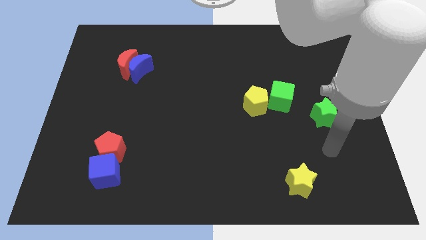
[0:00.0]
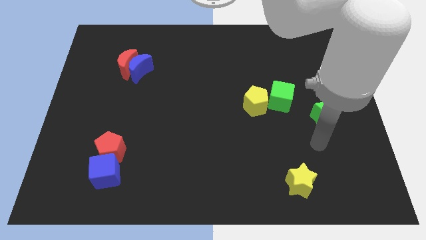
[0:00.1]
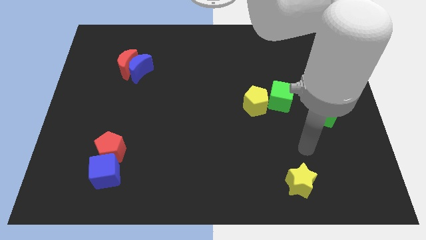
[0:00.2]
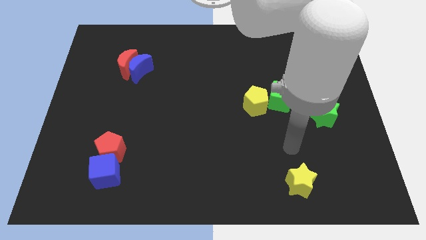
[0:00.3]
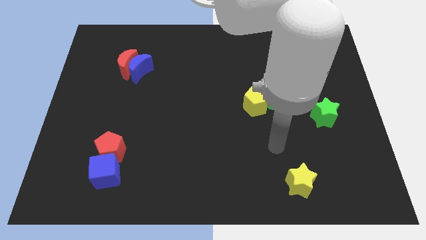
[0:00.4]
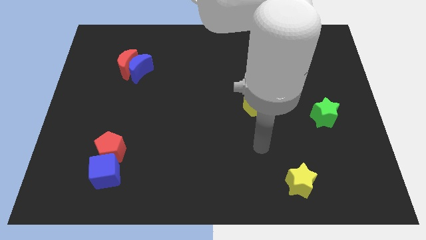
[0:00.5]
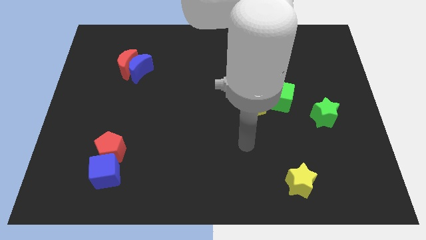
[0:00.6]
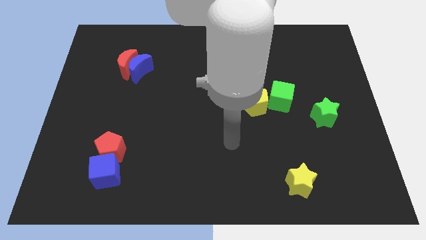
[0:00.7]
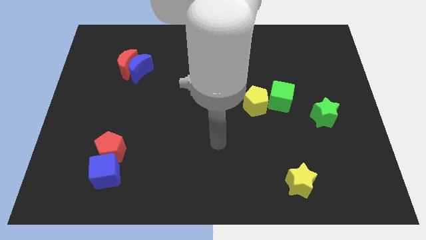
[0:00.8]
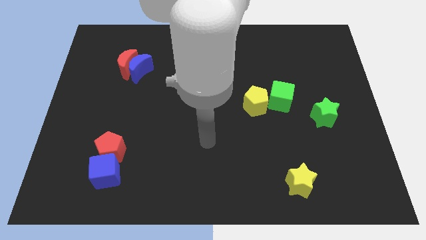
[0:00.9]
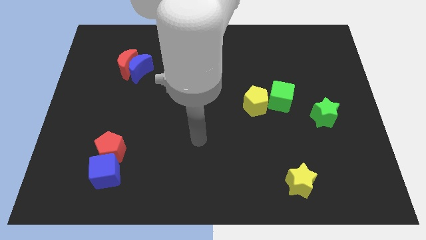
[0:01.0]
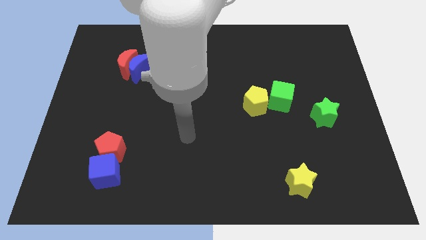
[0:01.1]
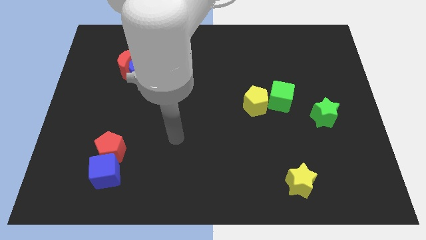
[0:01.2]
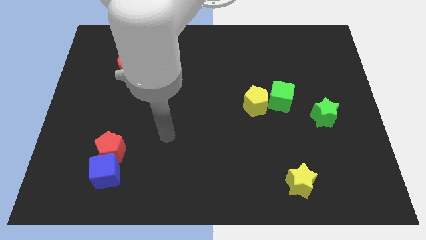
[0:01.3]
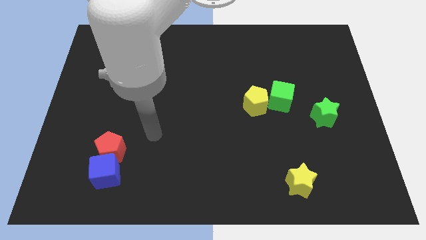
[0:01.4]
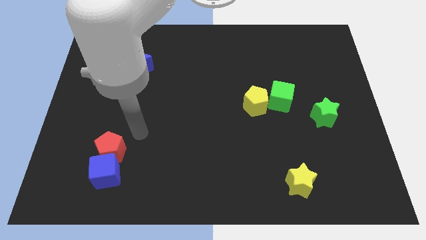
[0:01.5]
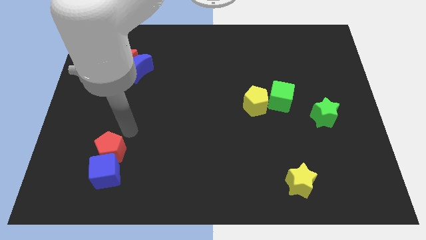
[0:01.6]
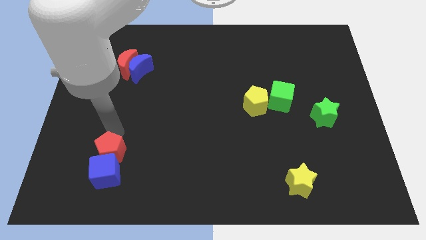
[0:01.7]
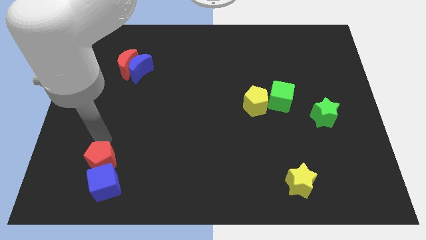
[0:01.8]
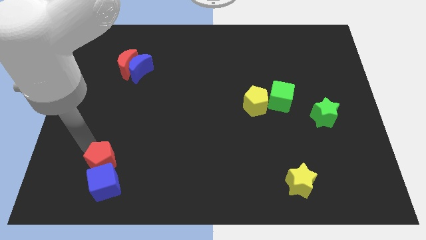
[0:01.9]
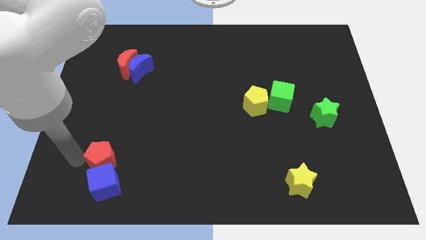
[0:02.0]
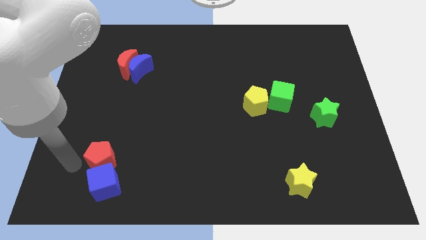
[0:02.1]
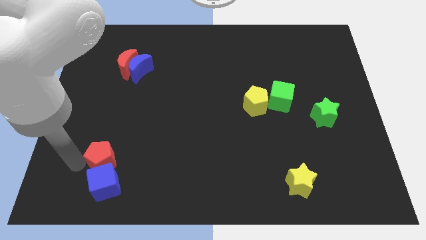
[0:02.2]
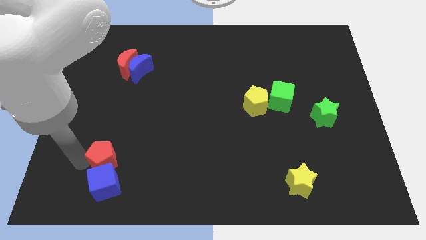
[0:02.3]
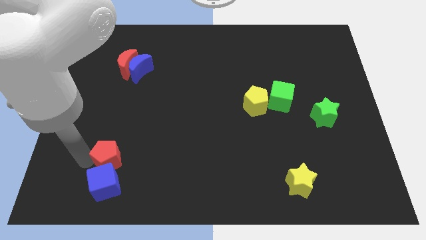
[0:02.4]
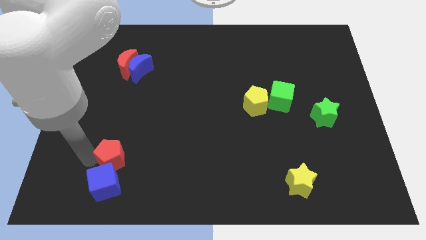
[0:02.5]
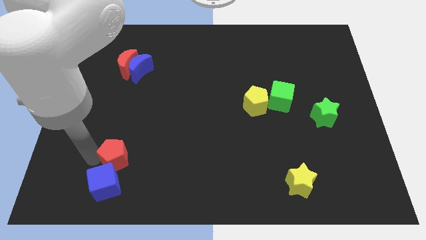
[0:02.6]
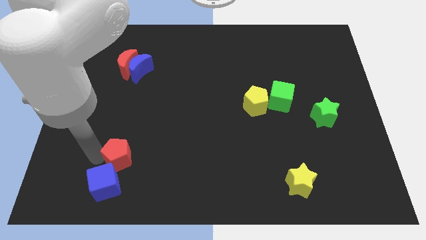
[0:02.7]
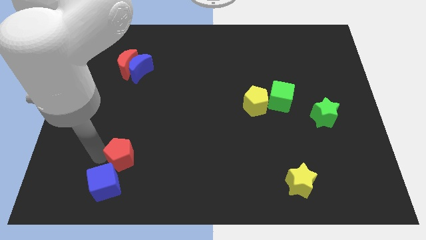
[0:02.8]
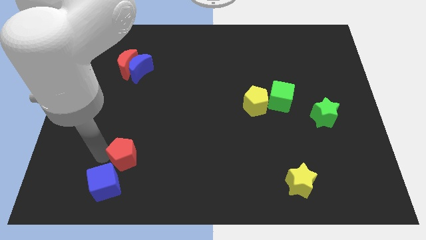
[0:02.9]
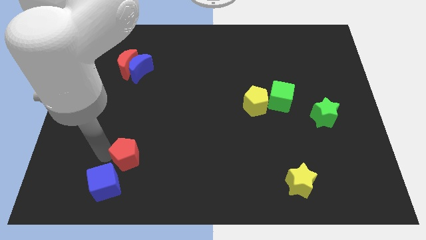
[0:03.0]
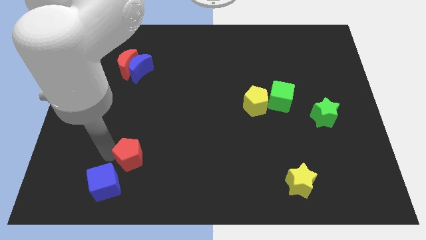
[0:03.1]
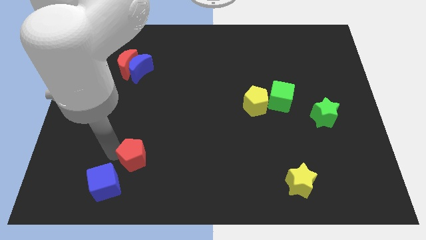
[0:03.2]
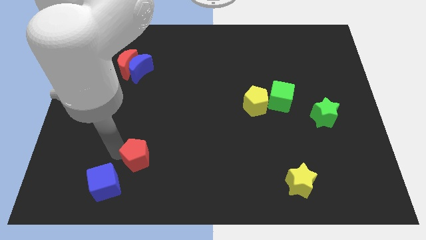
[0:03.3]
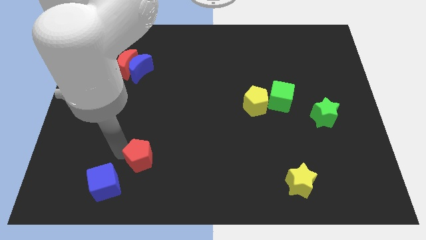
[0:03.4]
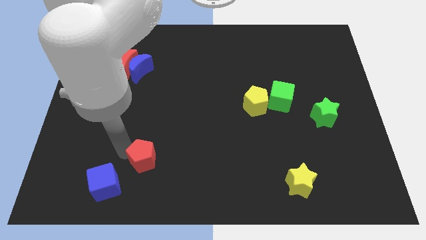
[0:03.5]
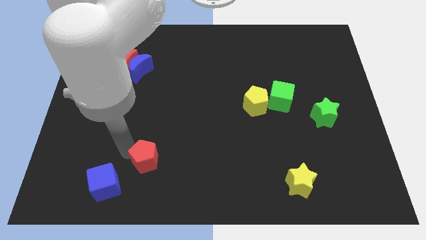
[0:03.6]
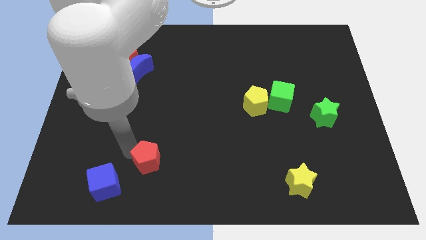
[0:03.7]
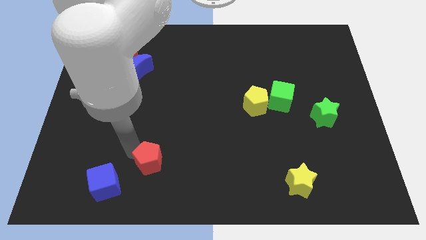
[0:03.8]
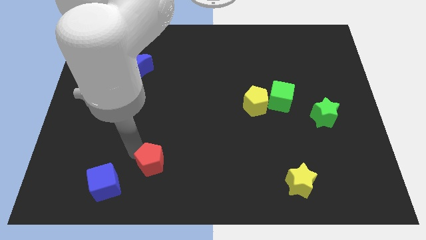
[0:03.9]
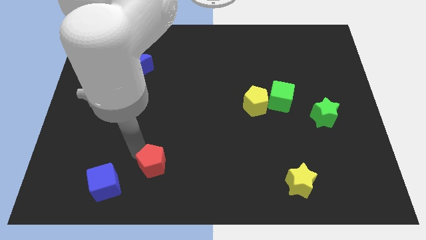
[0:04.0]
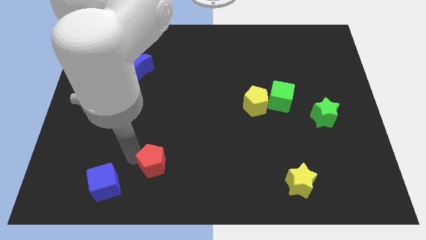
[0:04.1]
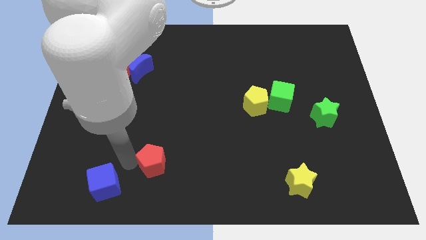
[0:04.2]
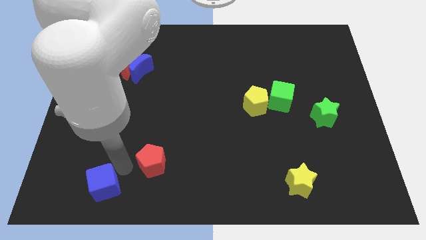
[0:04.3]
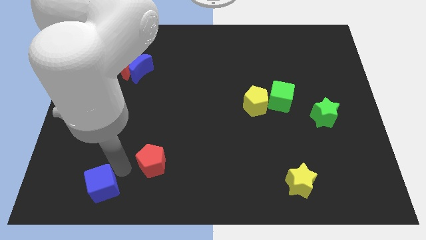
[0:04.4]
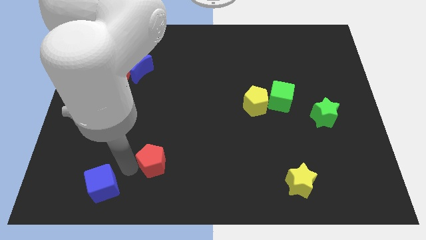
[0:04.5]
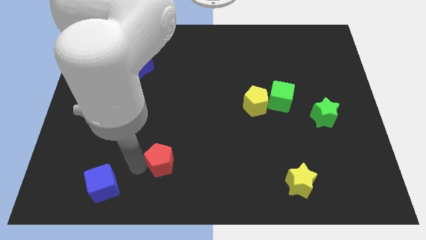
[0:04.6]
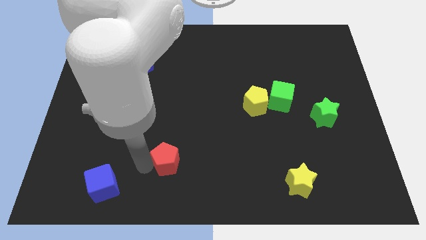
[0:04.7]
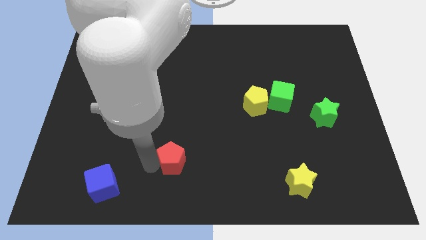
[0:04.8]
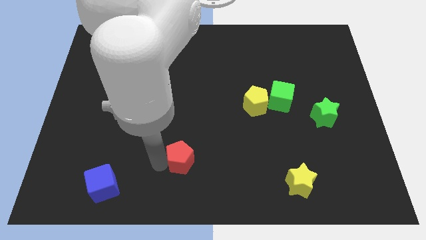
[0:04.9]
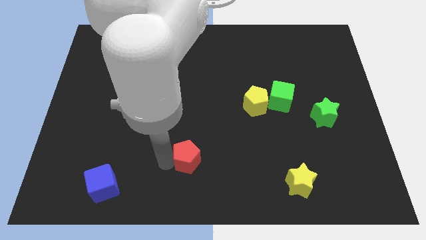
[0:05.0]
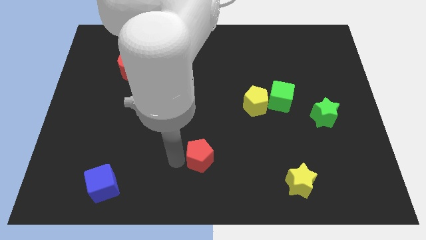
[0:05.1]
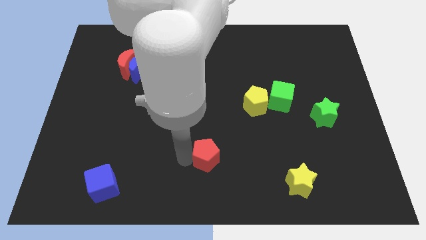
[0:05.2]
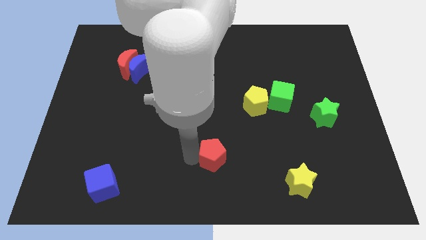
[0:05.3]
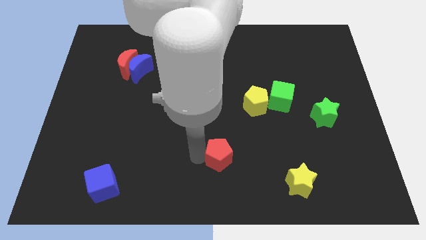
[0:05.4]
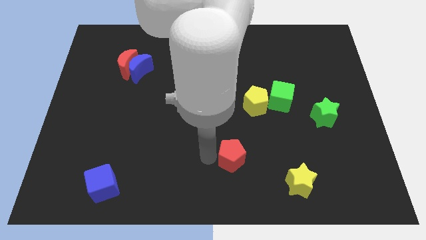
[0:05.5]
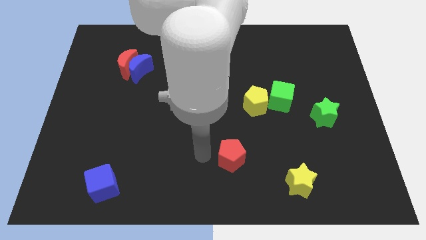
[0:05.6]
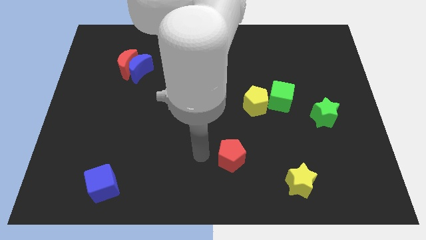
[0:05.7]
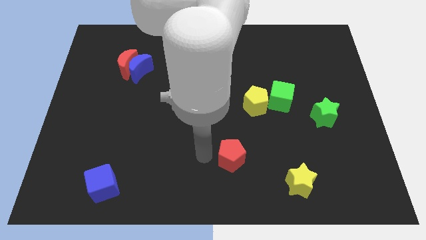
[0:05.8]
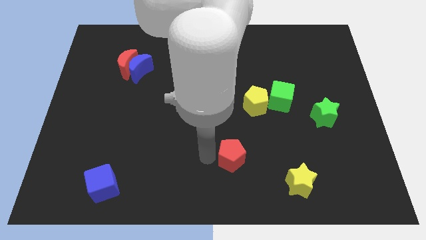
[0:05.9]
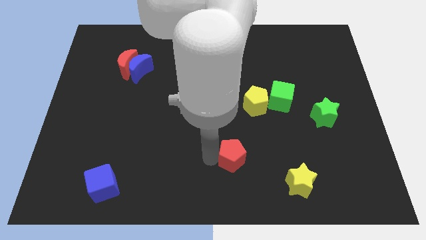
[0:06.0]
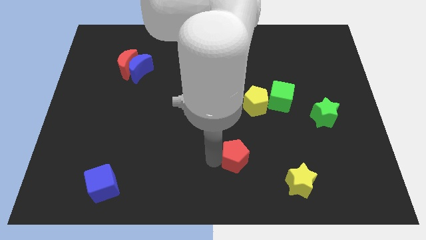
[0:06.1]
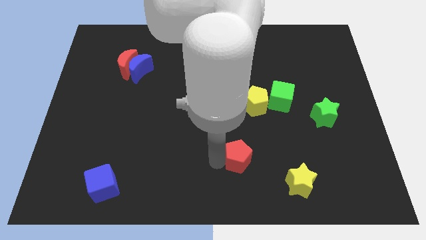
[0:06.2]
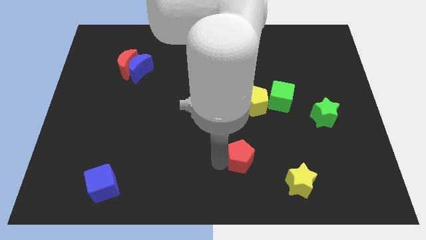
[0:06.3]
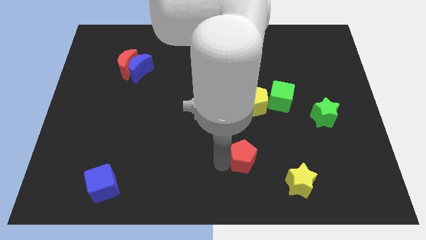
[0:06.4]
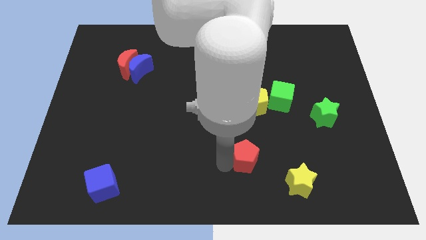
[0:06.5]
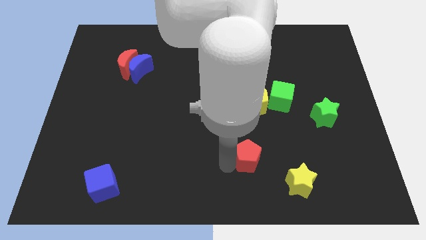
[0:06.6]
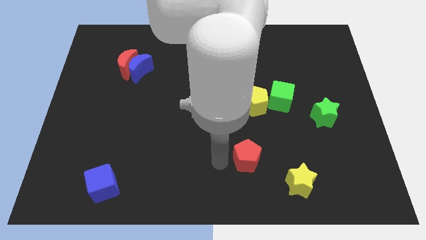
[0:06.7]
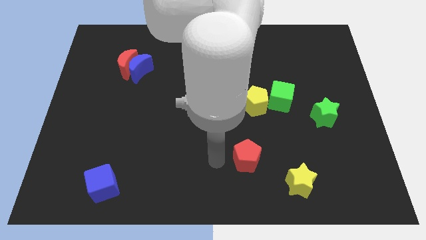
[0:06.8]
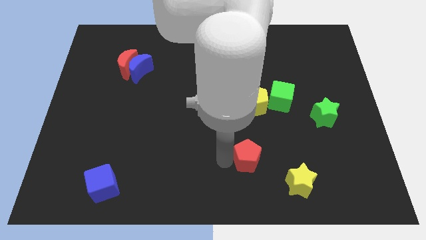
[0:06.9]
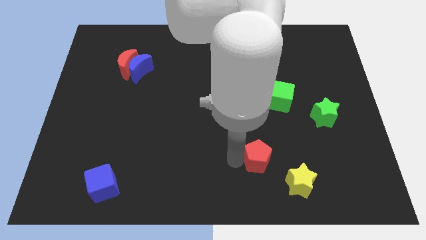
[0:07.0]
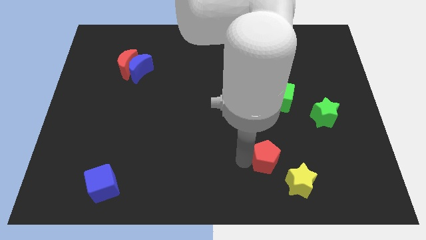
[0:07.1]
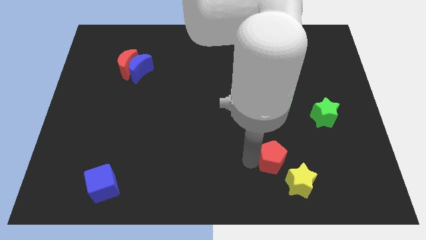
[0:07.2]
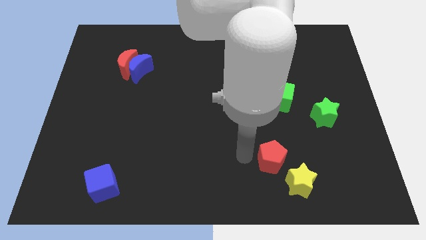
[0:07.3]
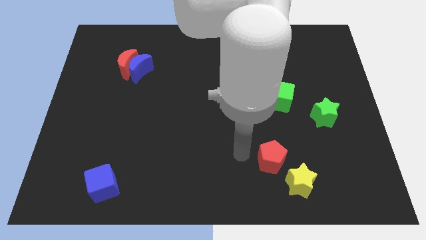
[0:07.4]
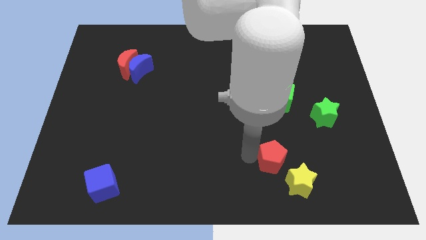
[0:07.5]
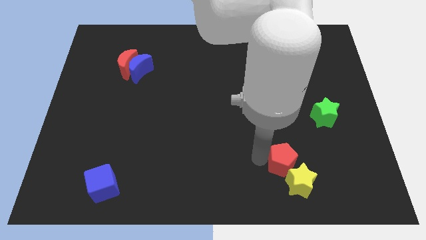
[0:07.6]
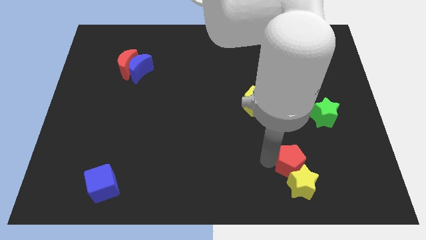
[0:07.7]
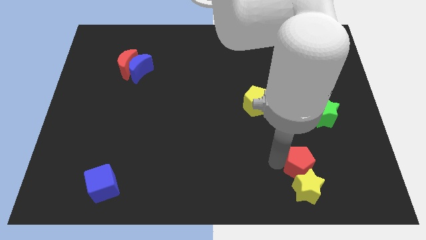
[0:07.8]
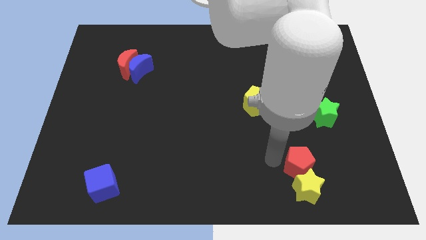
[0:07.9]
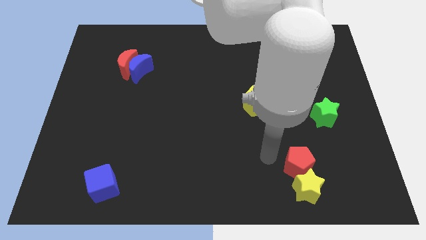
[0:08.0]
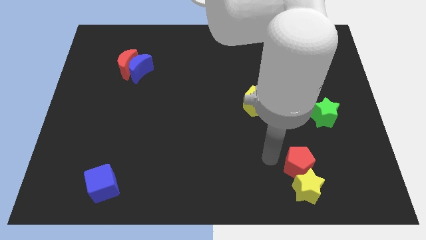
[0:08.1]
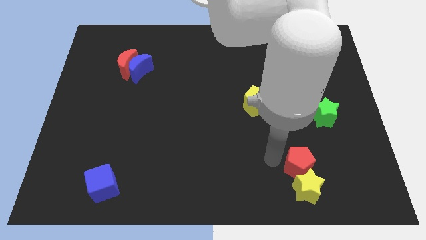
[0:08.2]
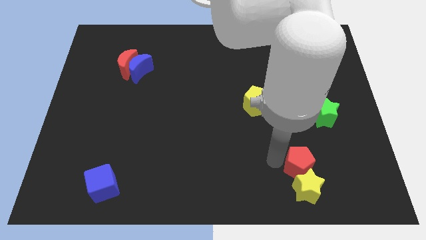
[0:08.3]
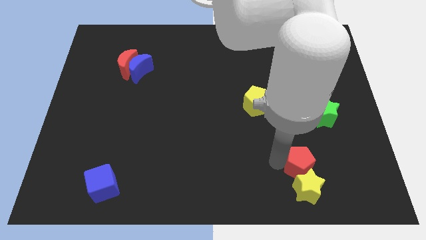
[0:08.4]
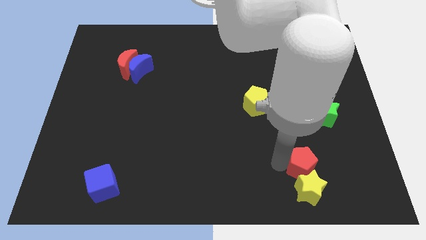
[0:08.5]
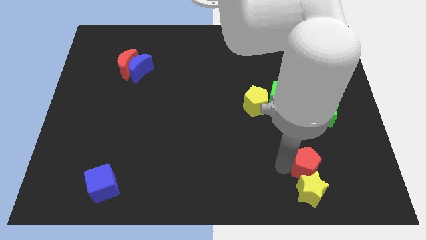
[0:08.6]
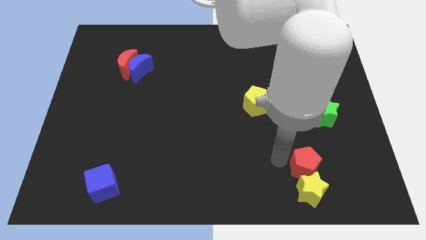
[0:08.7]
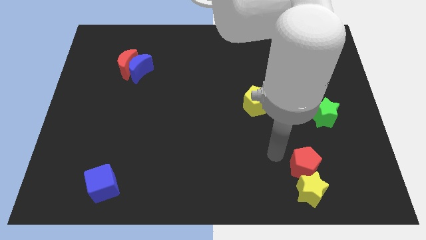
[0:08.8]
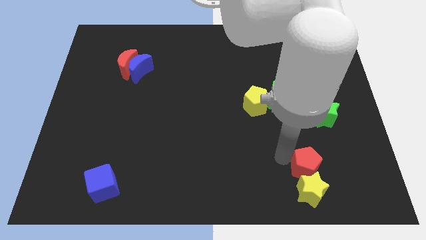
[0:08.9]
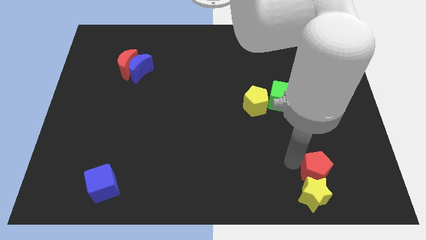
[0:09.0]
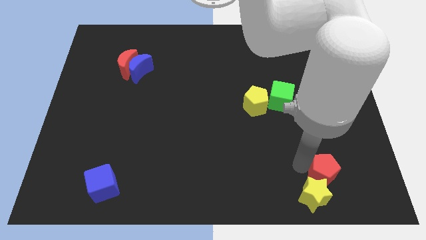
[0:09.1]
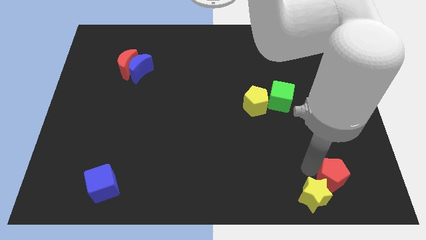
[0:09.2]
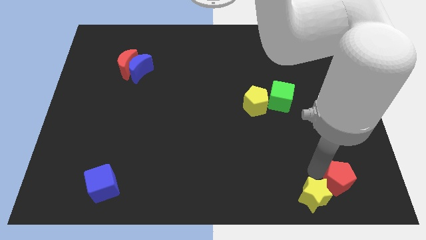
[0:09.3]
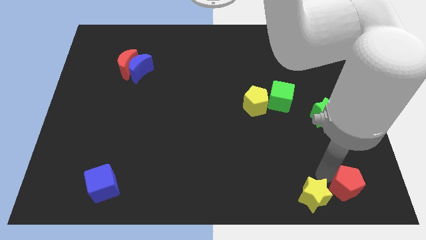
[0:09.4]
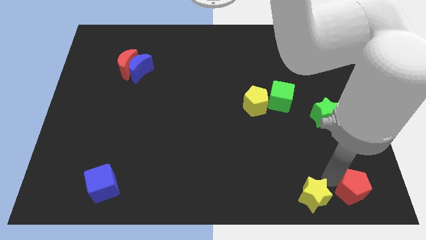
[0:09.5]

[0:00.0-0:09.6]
slide the red pentagon to the bottom right
